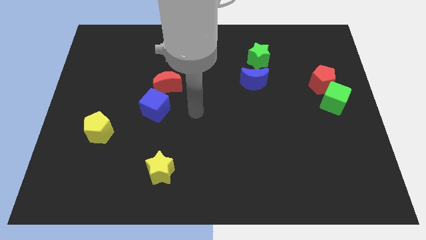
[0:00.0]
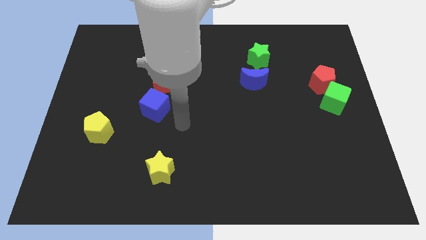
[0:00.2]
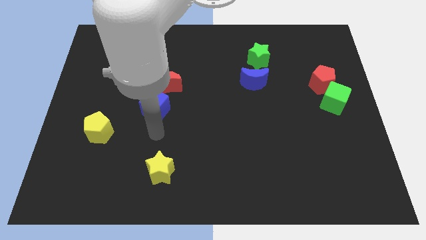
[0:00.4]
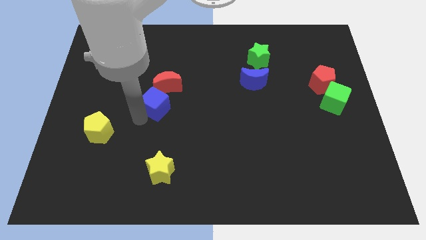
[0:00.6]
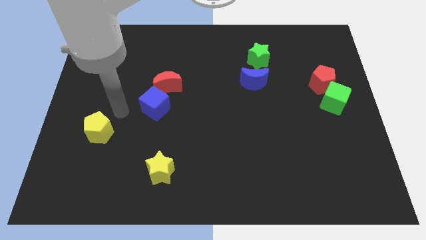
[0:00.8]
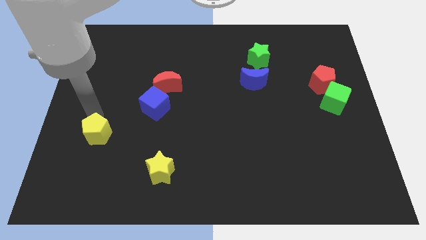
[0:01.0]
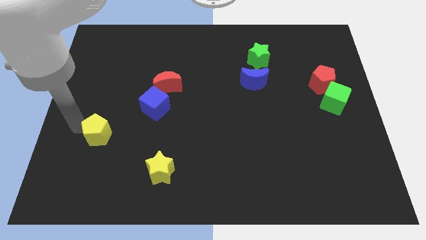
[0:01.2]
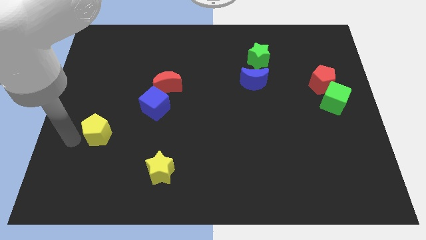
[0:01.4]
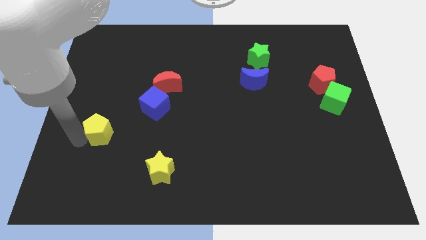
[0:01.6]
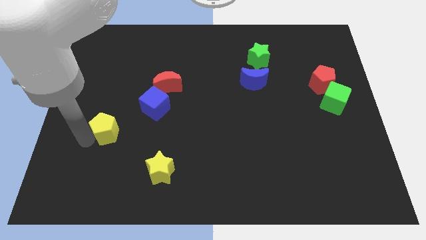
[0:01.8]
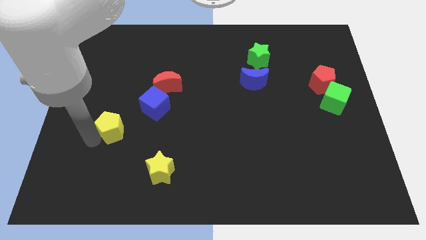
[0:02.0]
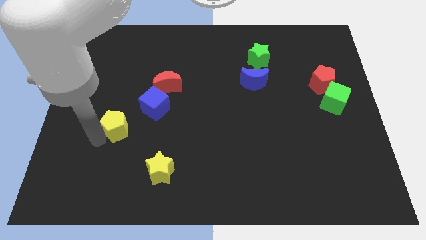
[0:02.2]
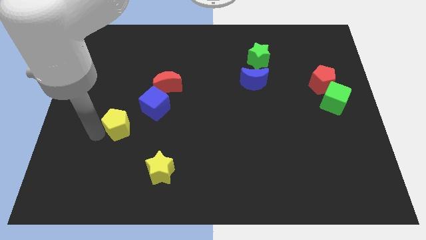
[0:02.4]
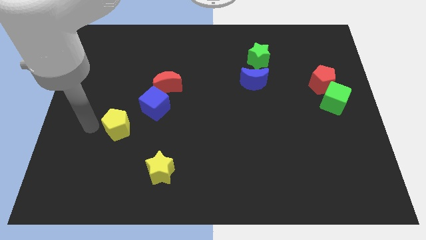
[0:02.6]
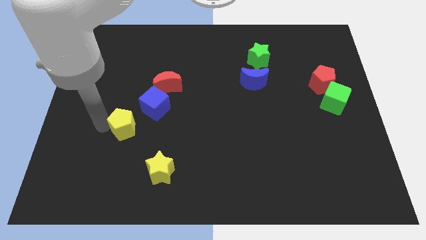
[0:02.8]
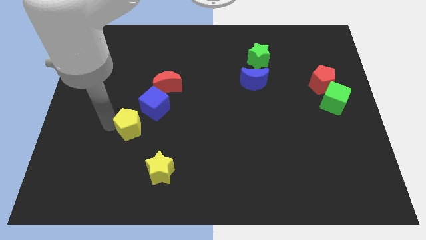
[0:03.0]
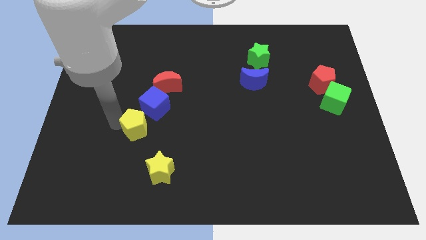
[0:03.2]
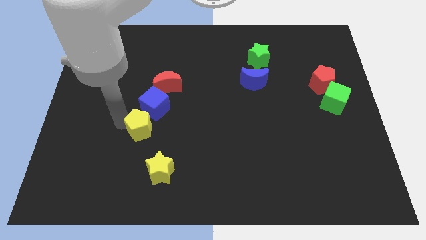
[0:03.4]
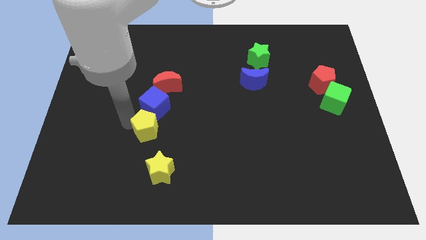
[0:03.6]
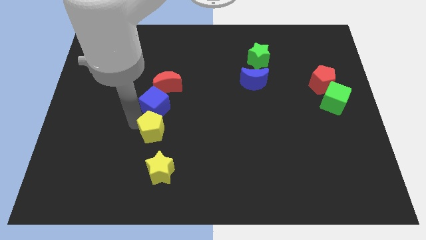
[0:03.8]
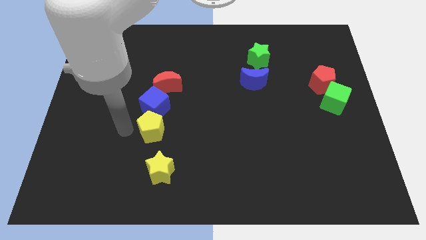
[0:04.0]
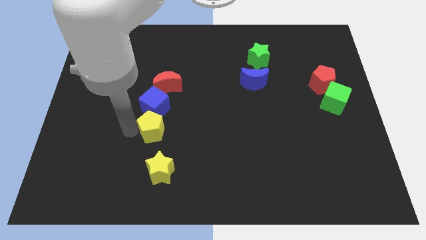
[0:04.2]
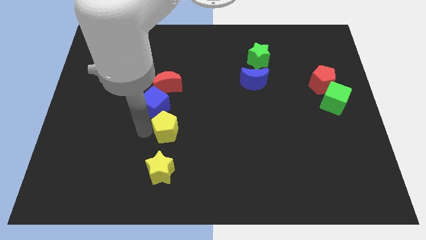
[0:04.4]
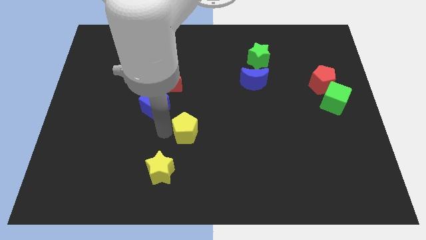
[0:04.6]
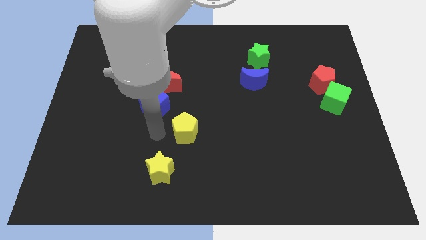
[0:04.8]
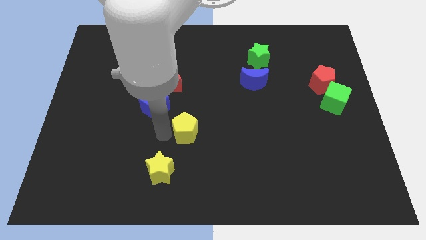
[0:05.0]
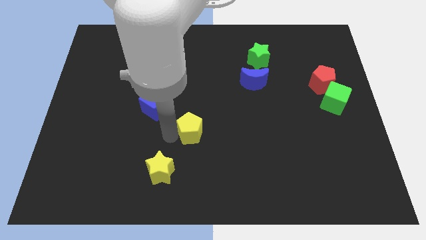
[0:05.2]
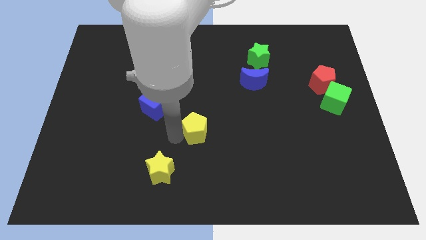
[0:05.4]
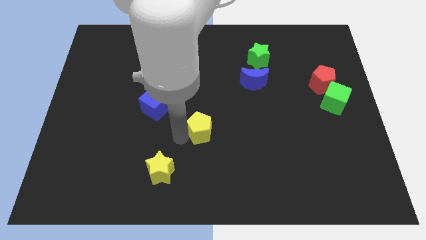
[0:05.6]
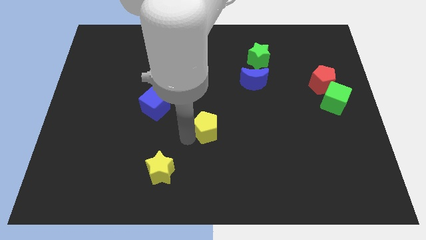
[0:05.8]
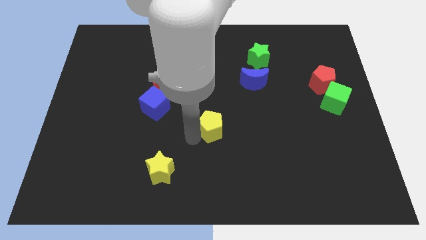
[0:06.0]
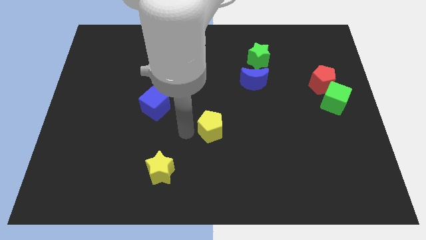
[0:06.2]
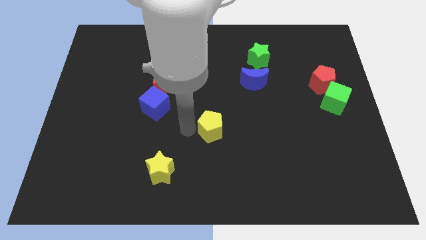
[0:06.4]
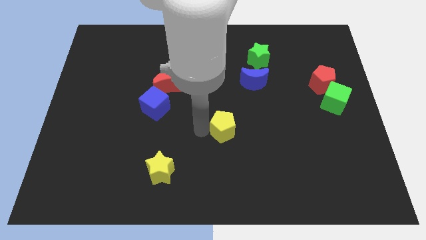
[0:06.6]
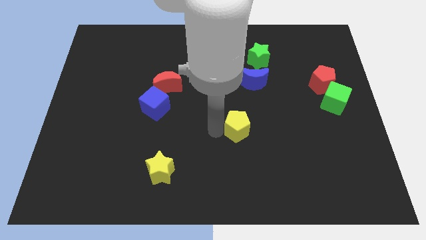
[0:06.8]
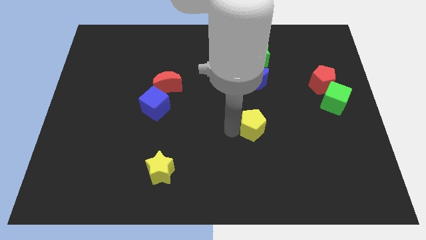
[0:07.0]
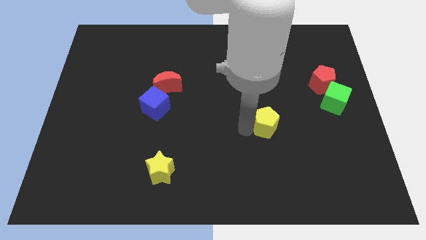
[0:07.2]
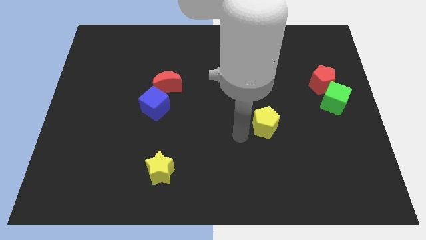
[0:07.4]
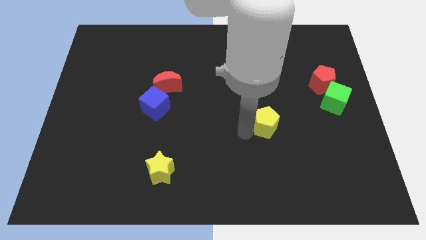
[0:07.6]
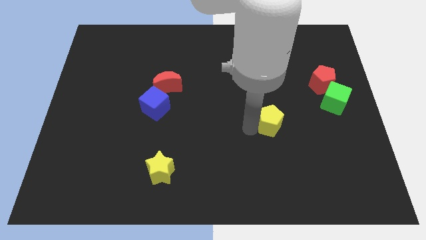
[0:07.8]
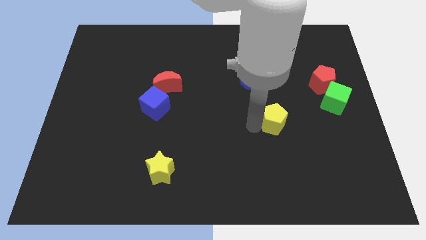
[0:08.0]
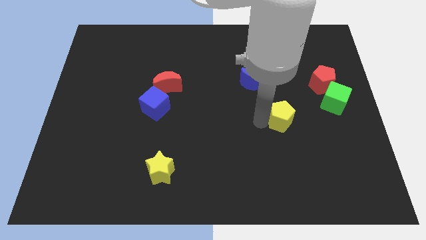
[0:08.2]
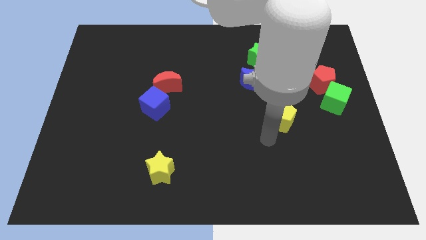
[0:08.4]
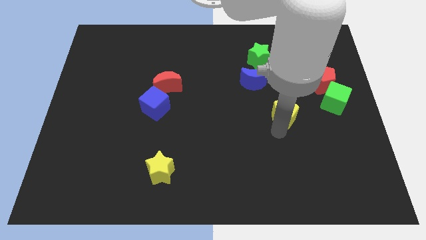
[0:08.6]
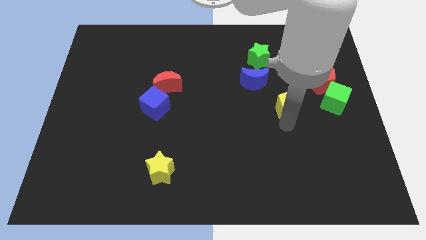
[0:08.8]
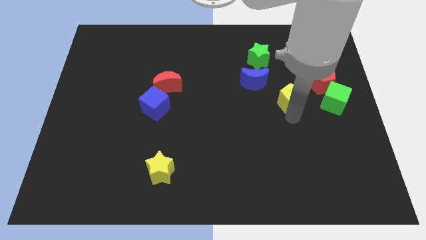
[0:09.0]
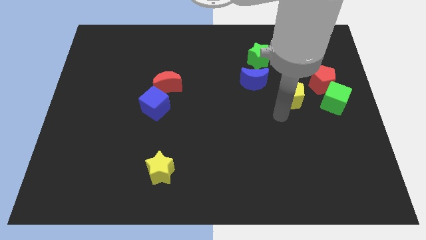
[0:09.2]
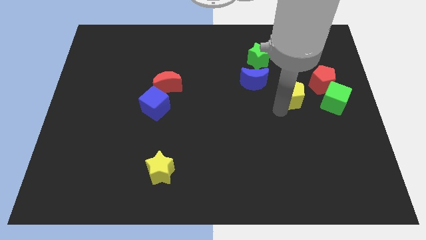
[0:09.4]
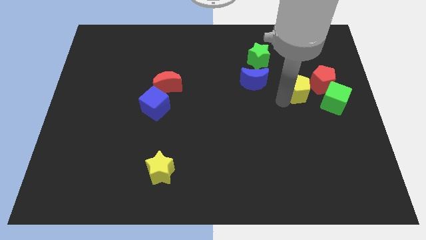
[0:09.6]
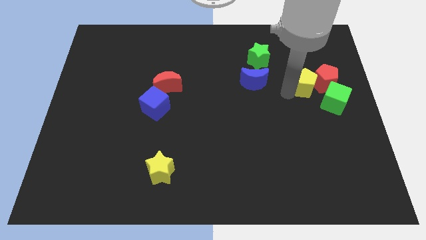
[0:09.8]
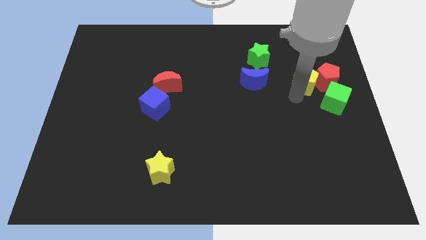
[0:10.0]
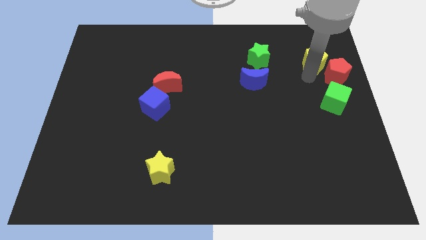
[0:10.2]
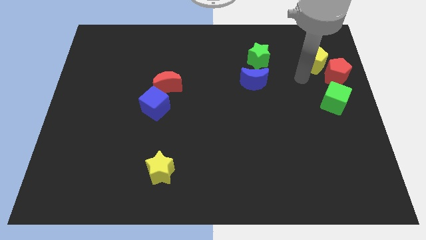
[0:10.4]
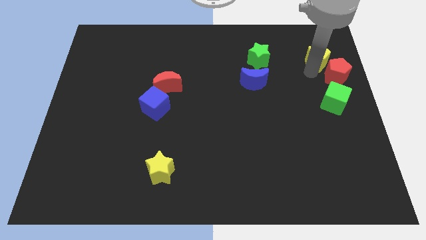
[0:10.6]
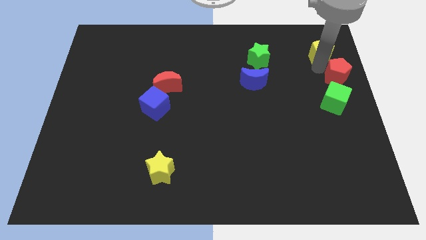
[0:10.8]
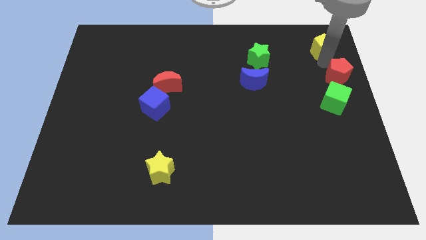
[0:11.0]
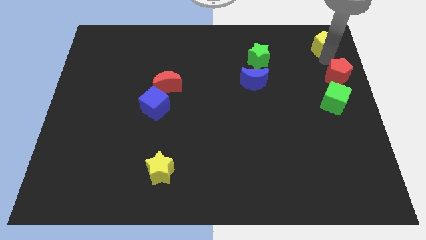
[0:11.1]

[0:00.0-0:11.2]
put the yellow pentagon to the top right of the board

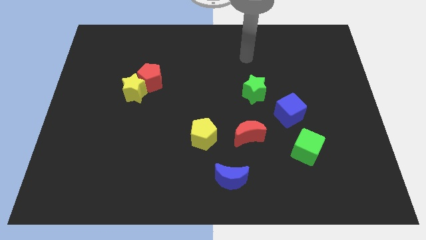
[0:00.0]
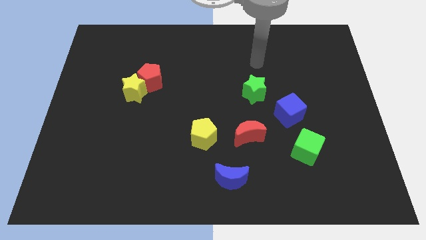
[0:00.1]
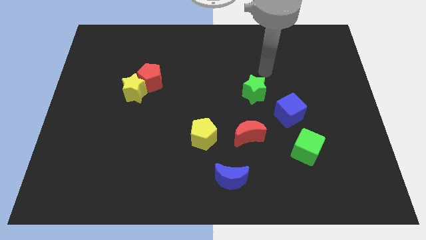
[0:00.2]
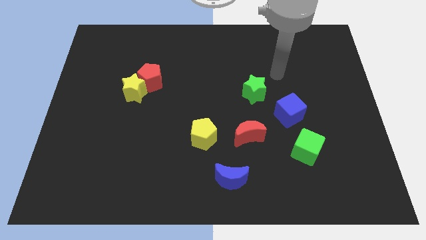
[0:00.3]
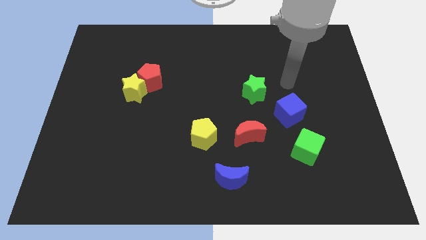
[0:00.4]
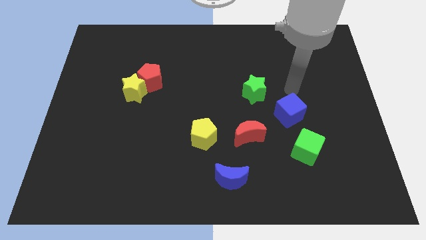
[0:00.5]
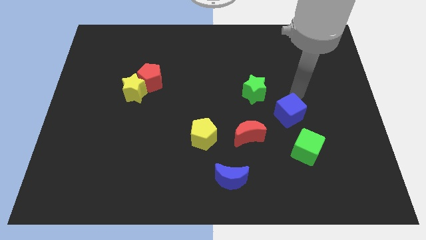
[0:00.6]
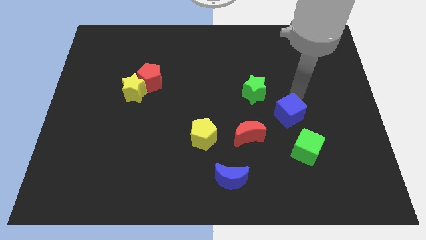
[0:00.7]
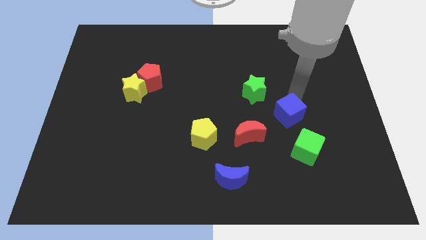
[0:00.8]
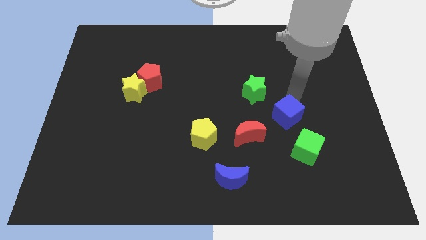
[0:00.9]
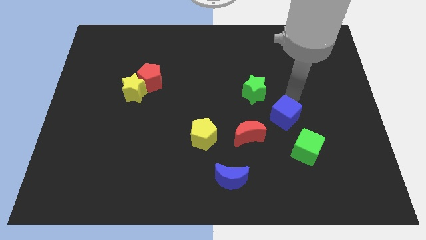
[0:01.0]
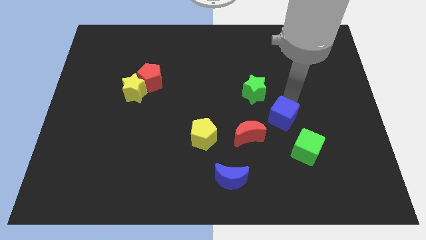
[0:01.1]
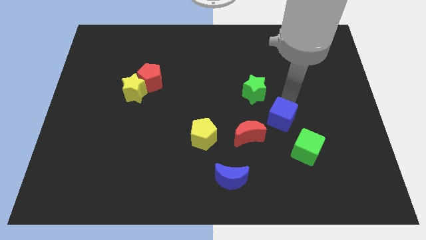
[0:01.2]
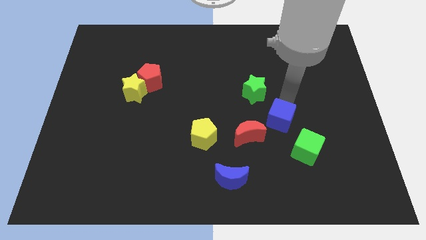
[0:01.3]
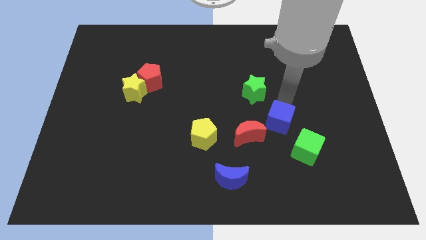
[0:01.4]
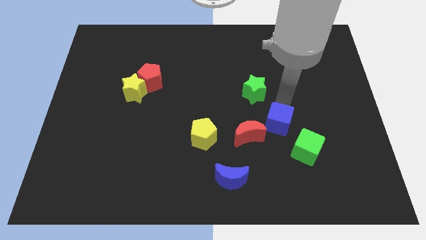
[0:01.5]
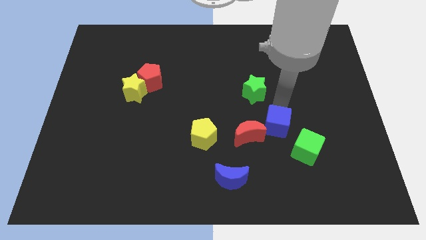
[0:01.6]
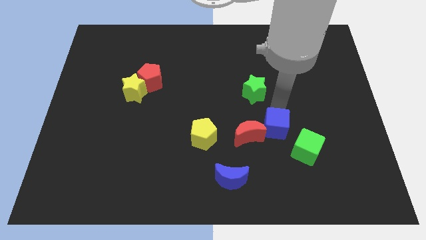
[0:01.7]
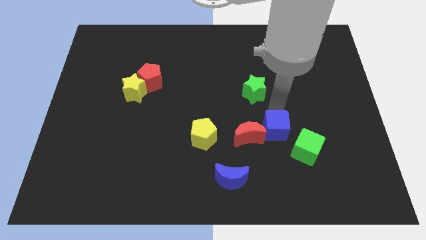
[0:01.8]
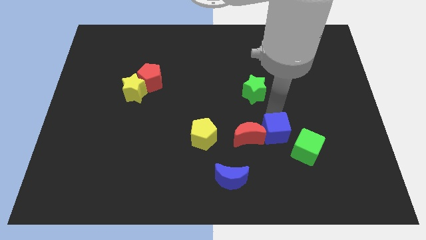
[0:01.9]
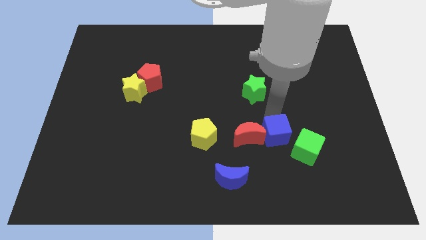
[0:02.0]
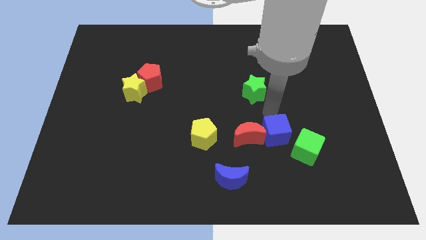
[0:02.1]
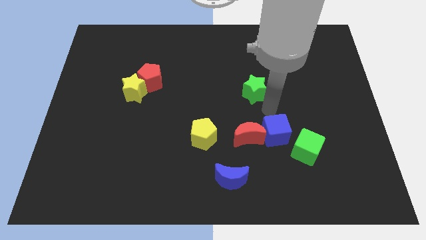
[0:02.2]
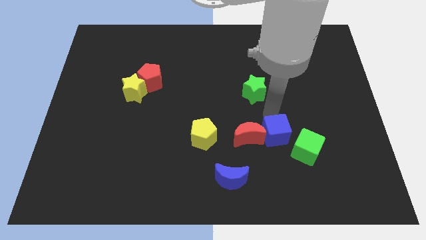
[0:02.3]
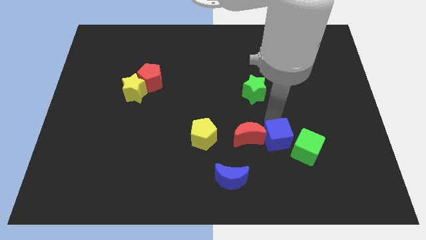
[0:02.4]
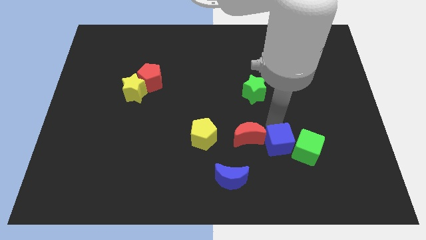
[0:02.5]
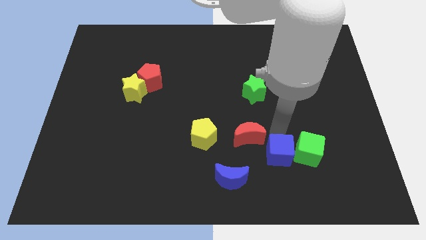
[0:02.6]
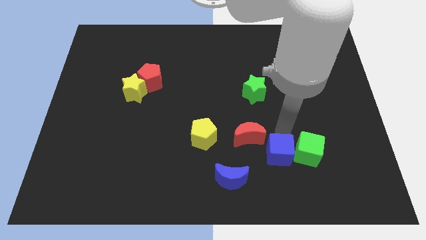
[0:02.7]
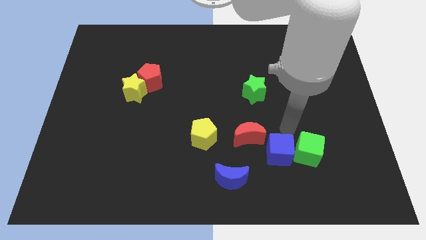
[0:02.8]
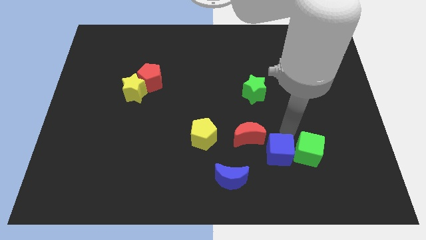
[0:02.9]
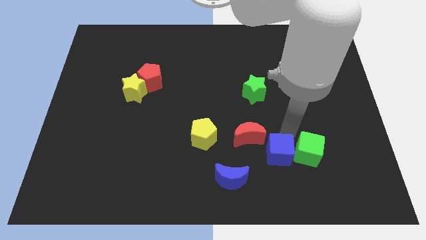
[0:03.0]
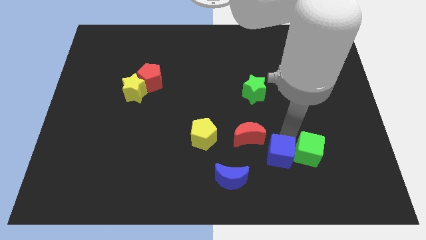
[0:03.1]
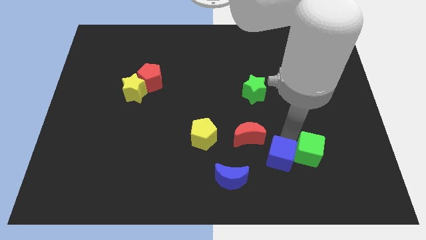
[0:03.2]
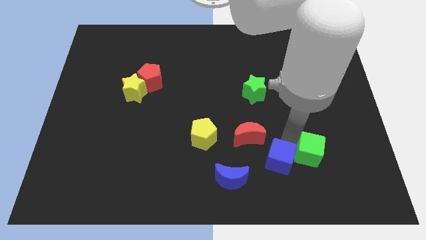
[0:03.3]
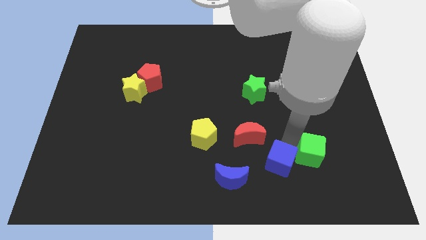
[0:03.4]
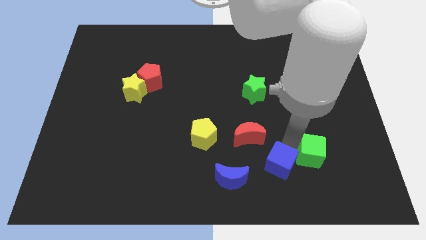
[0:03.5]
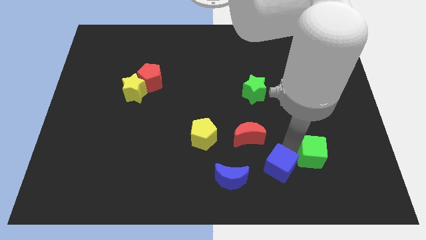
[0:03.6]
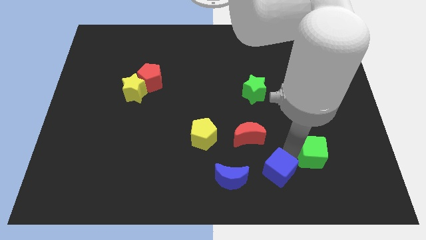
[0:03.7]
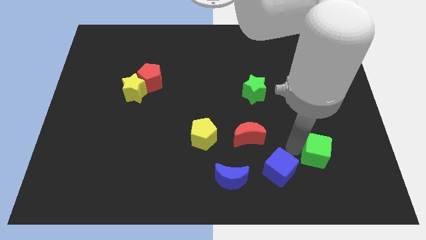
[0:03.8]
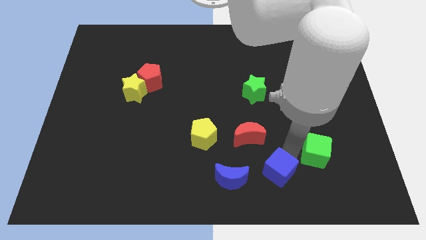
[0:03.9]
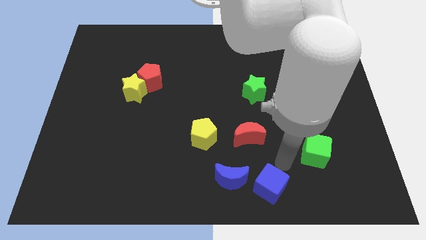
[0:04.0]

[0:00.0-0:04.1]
move the blue cube to the bottom
